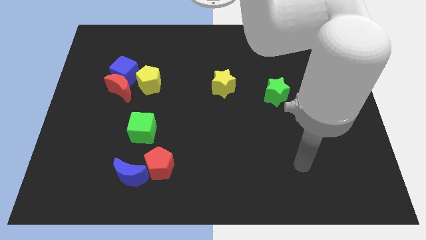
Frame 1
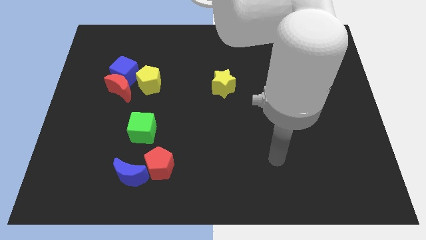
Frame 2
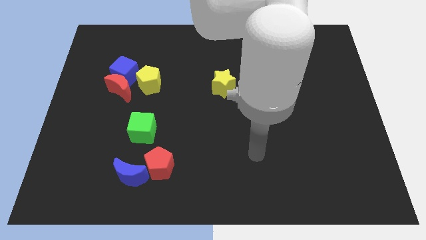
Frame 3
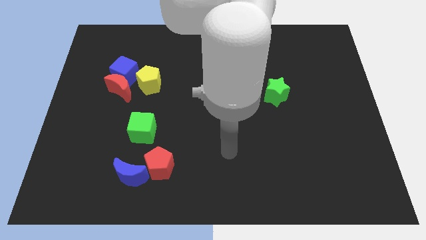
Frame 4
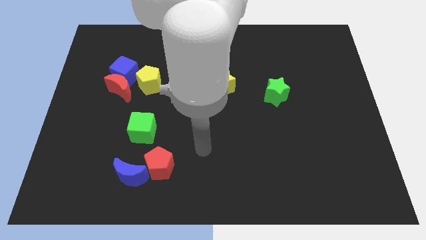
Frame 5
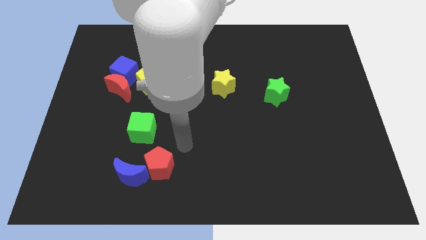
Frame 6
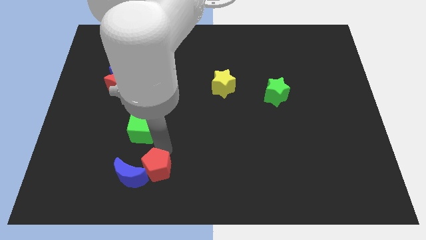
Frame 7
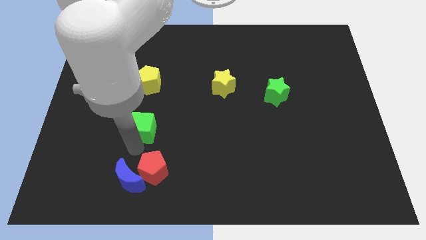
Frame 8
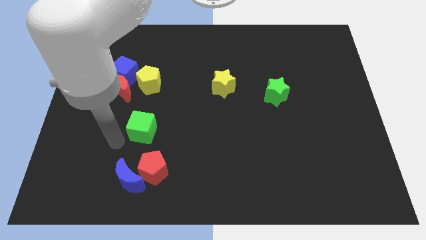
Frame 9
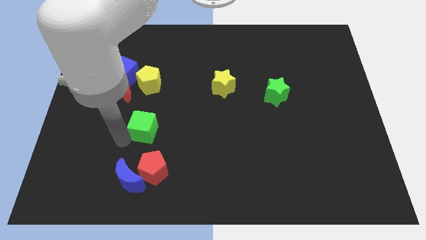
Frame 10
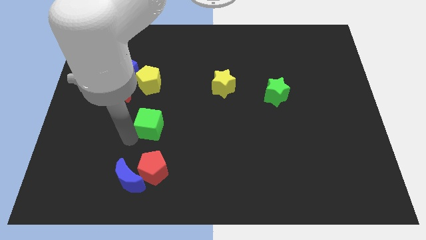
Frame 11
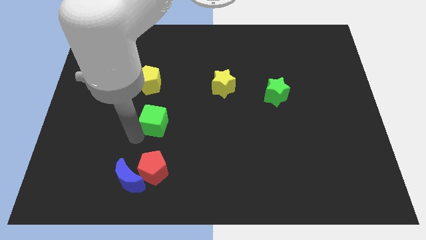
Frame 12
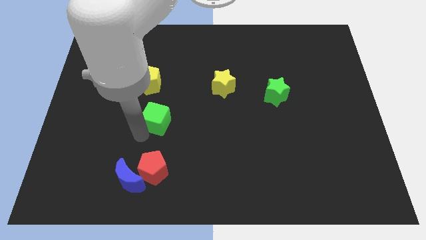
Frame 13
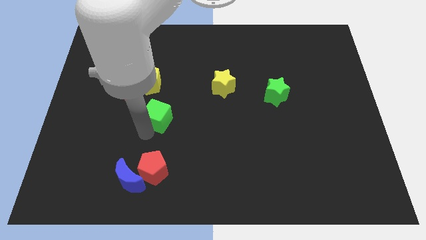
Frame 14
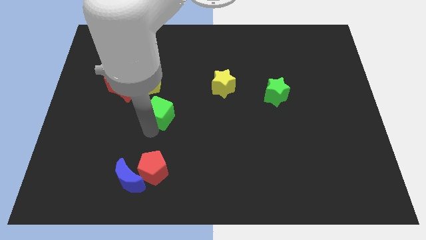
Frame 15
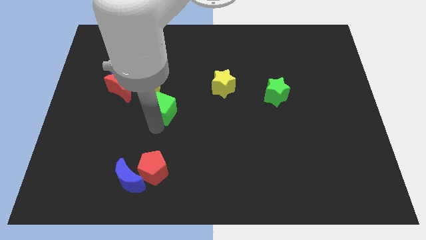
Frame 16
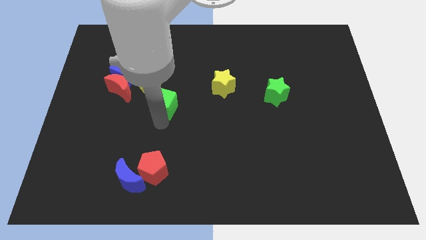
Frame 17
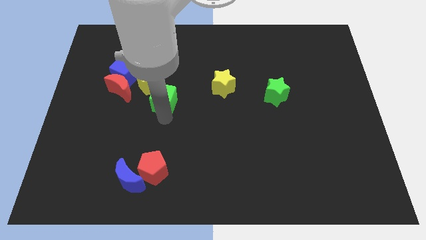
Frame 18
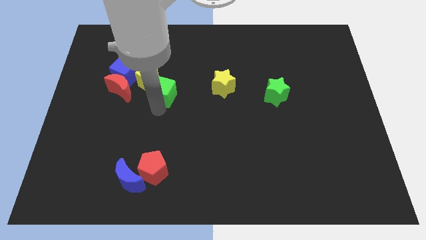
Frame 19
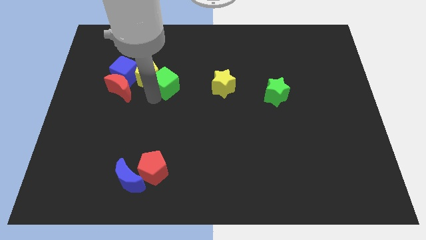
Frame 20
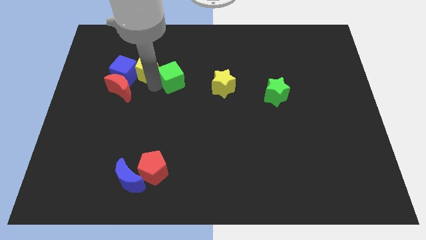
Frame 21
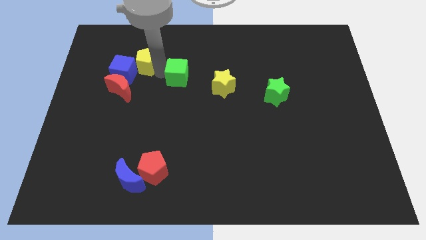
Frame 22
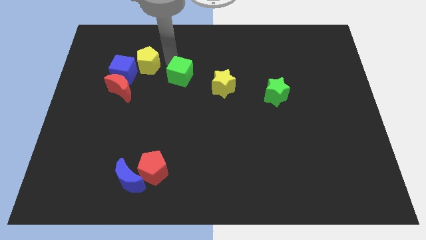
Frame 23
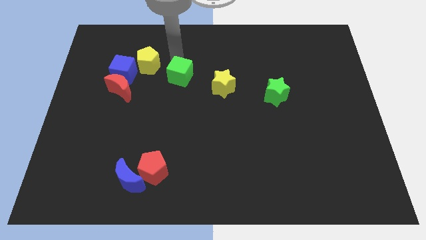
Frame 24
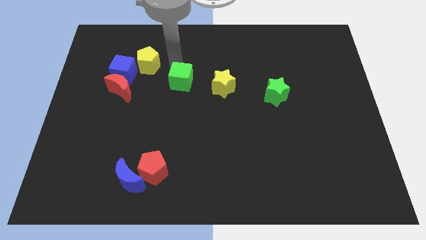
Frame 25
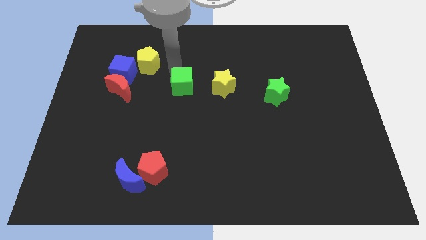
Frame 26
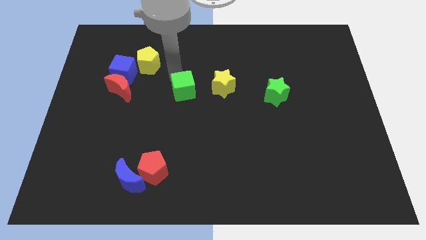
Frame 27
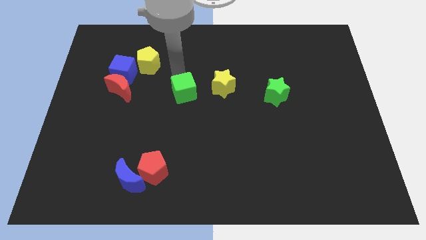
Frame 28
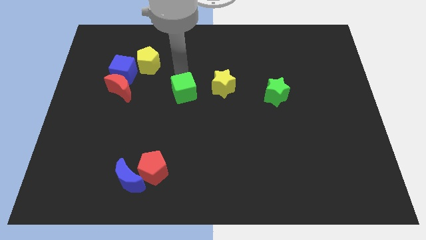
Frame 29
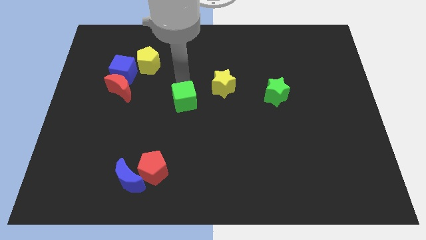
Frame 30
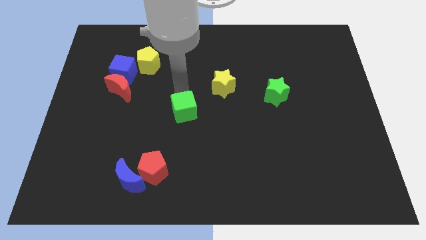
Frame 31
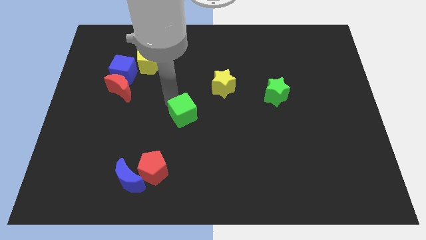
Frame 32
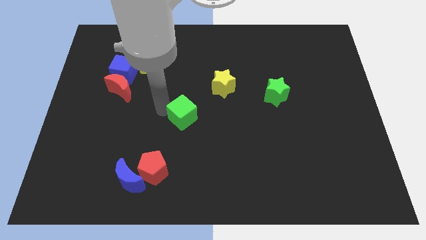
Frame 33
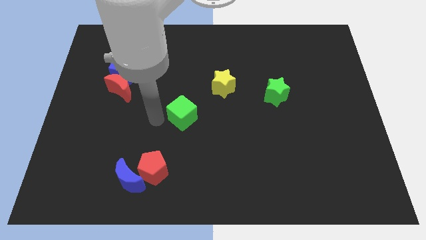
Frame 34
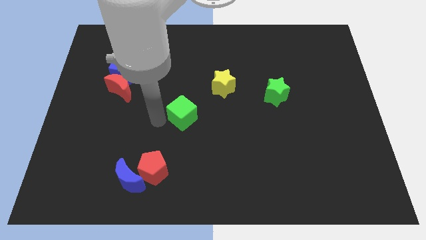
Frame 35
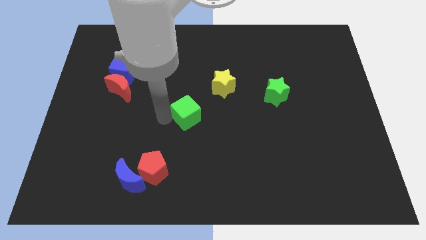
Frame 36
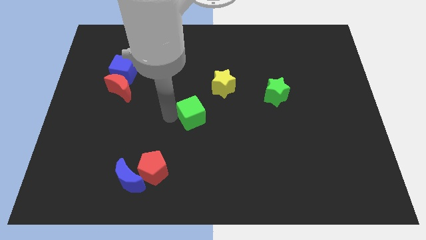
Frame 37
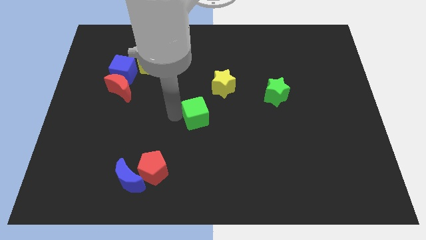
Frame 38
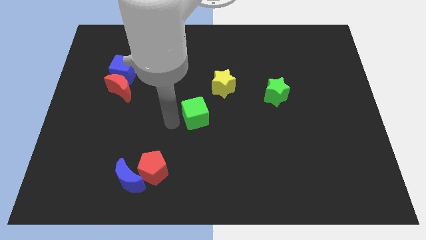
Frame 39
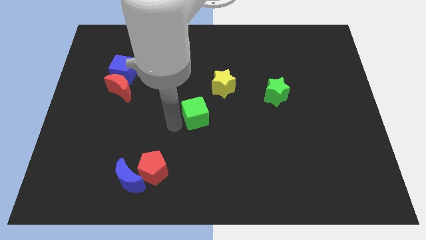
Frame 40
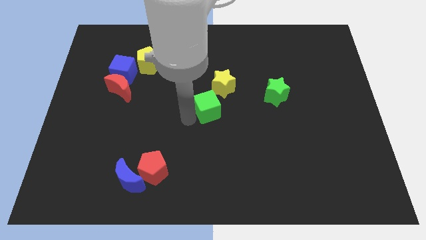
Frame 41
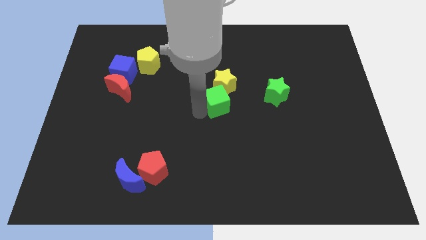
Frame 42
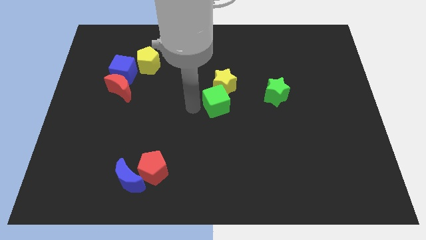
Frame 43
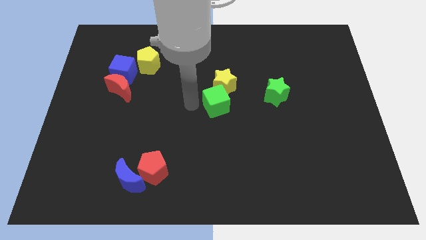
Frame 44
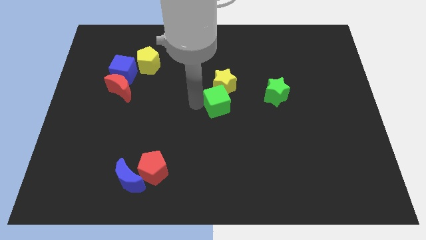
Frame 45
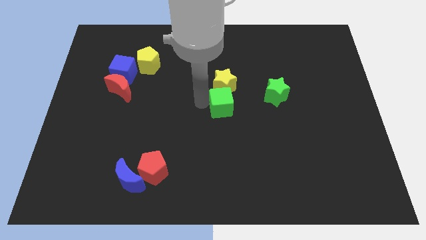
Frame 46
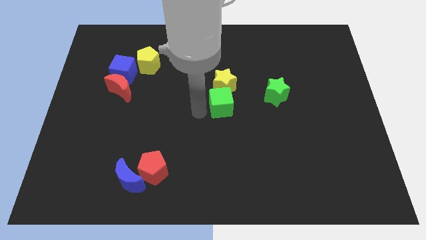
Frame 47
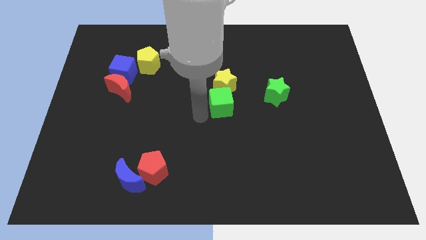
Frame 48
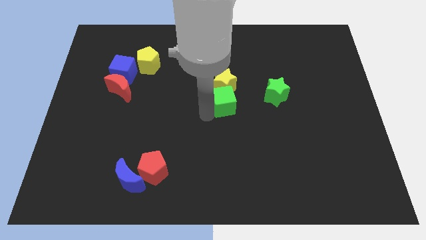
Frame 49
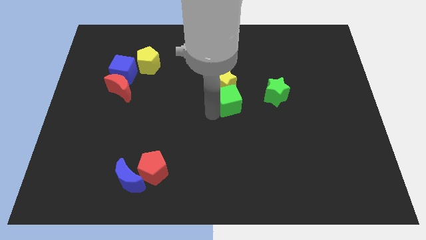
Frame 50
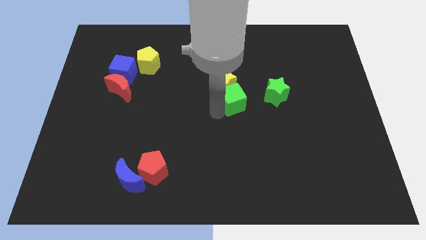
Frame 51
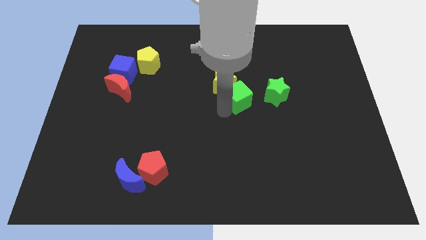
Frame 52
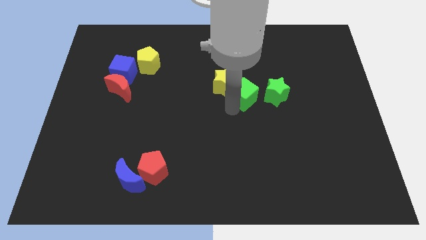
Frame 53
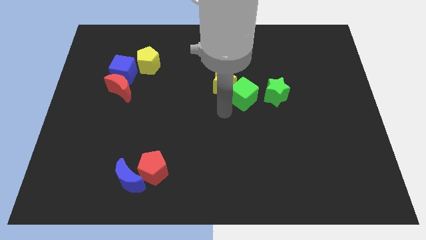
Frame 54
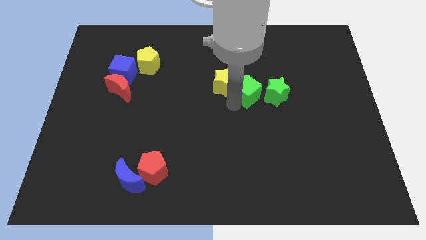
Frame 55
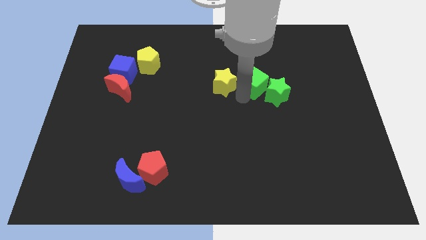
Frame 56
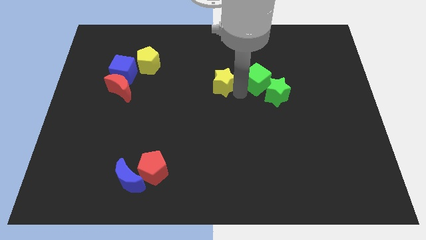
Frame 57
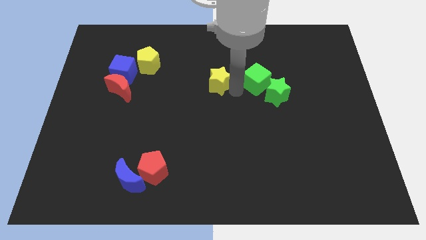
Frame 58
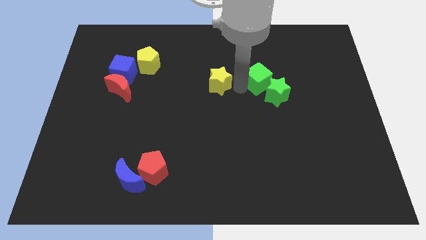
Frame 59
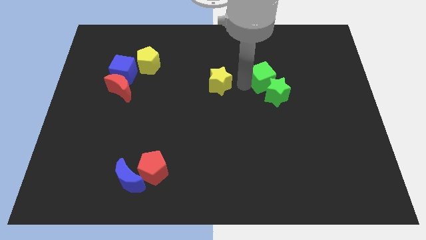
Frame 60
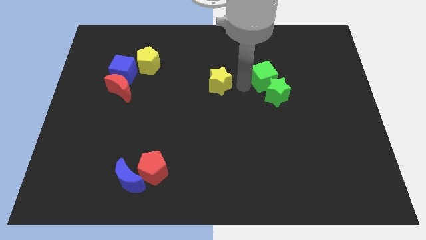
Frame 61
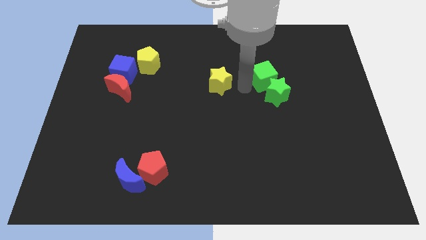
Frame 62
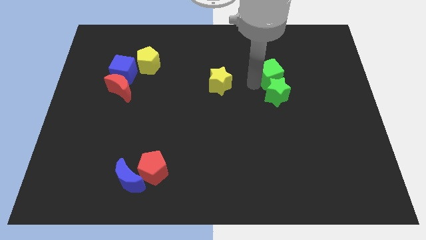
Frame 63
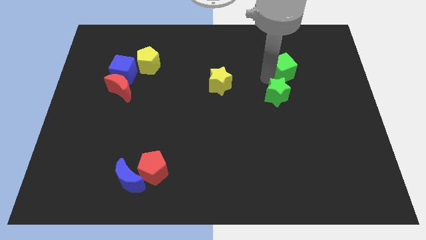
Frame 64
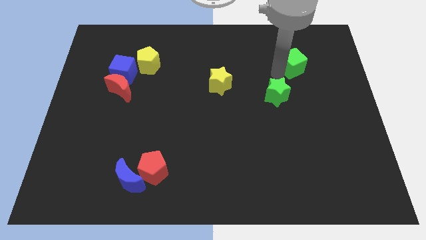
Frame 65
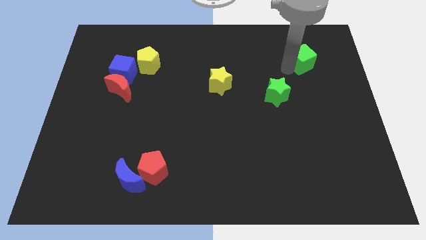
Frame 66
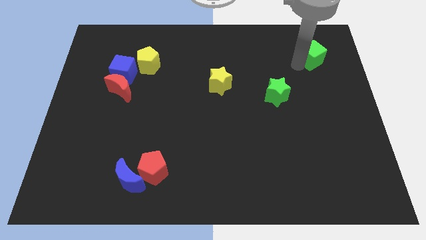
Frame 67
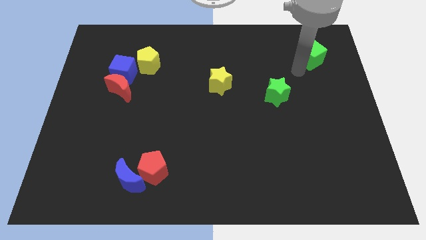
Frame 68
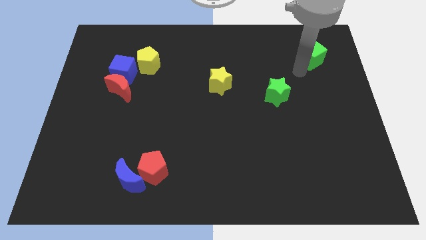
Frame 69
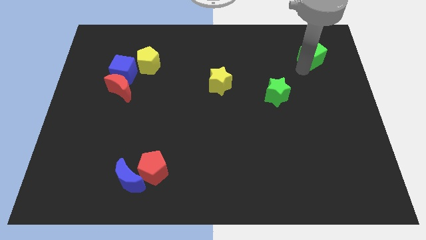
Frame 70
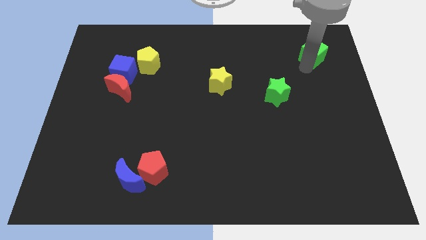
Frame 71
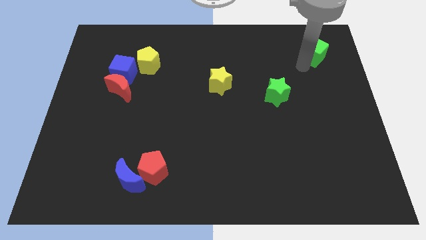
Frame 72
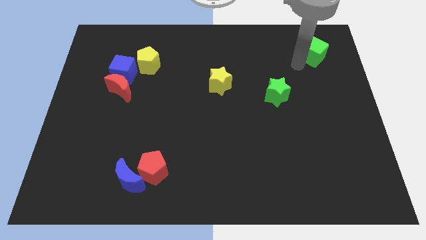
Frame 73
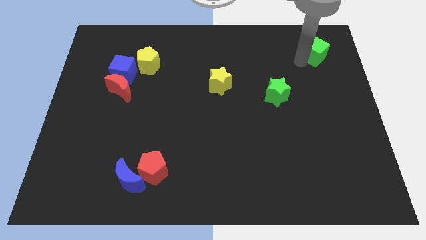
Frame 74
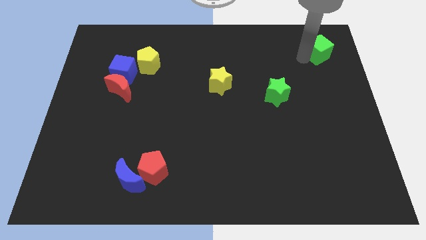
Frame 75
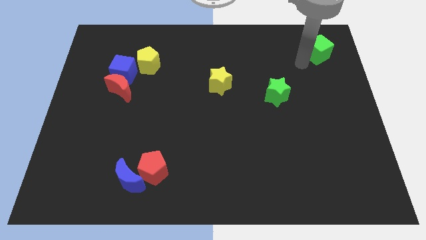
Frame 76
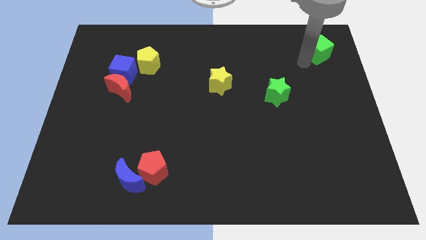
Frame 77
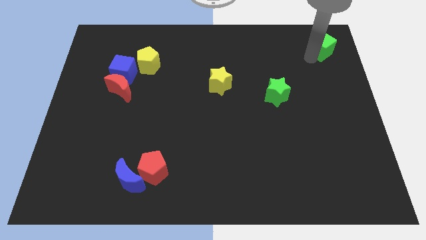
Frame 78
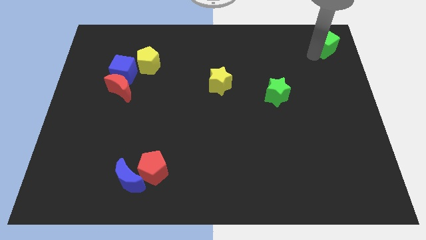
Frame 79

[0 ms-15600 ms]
slide the green cube to the top right
